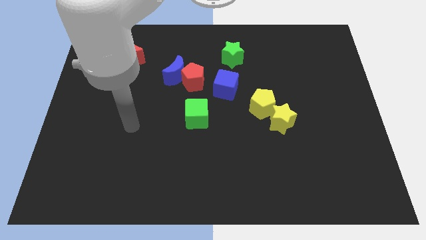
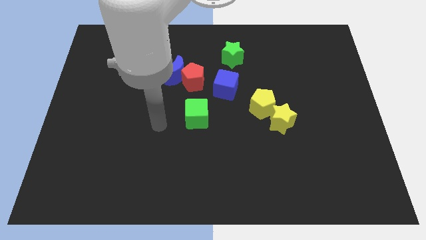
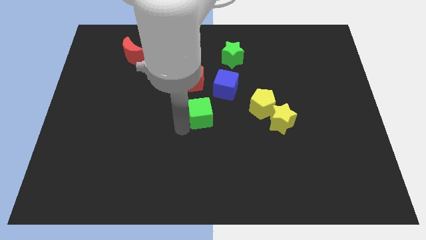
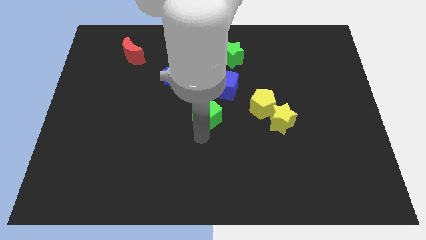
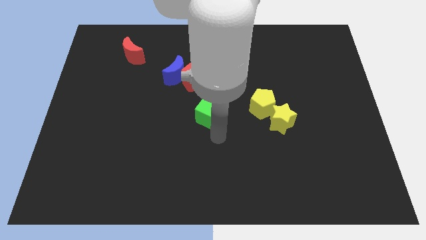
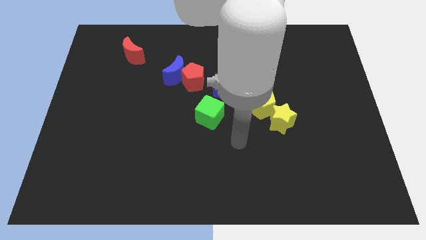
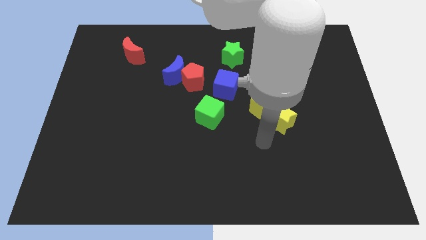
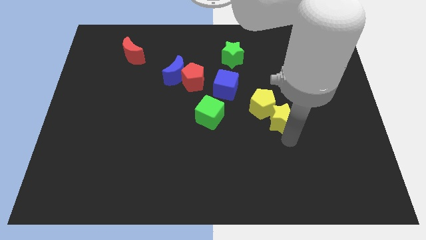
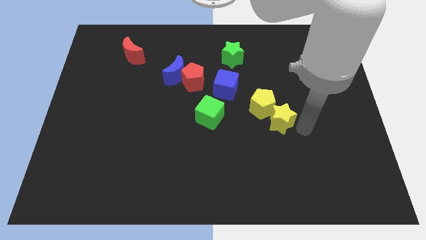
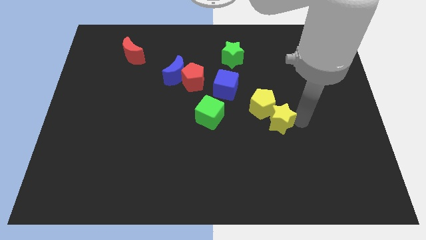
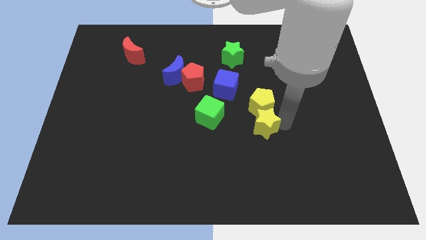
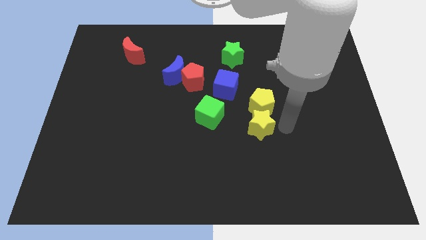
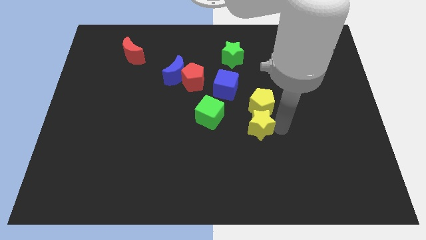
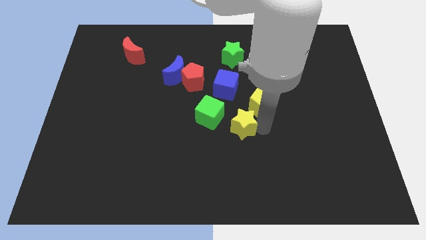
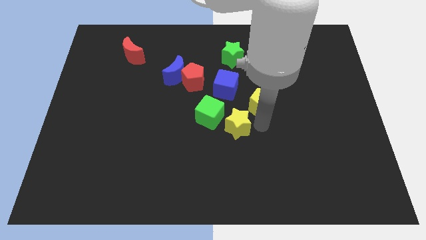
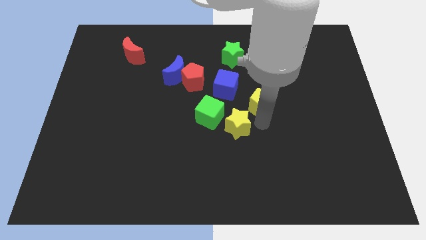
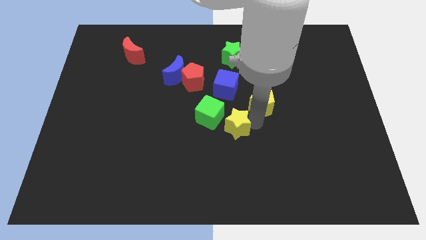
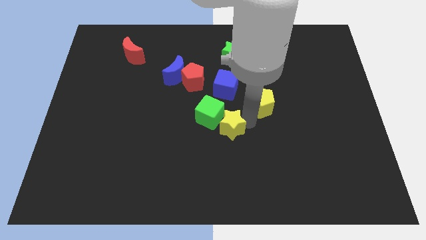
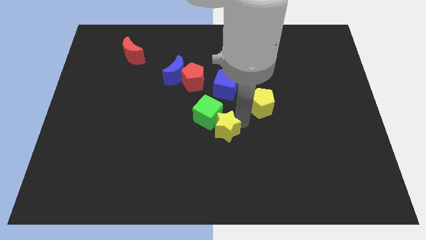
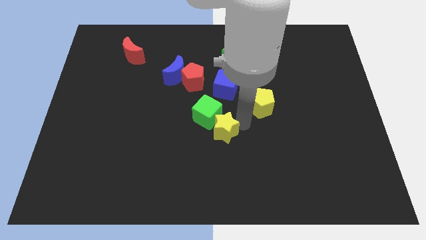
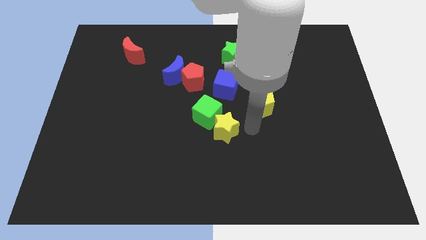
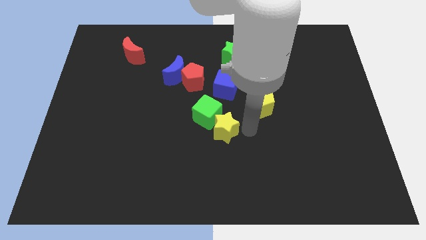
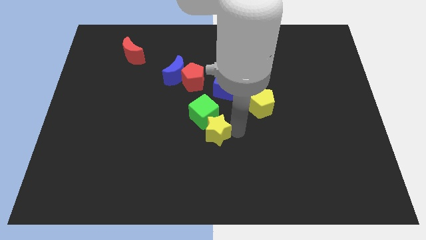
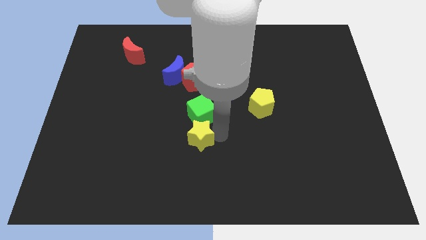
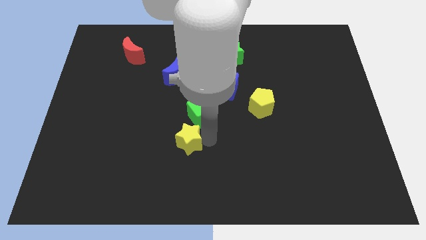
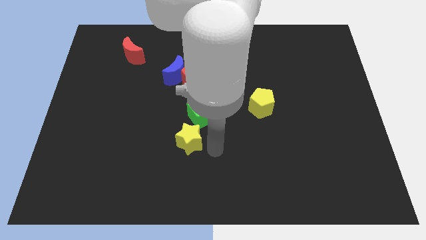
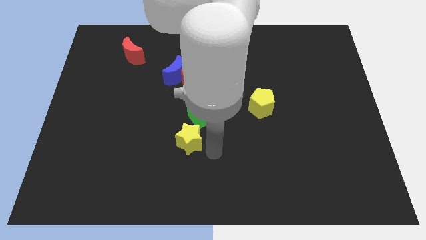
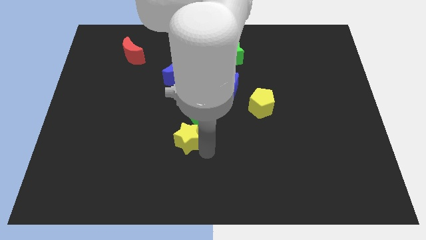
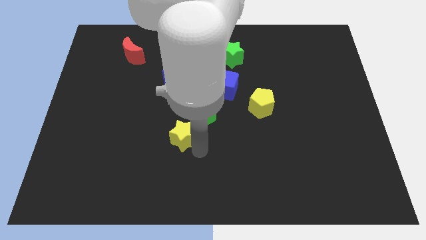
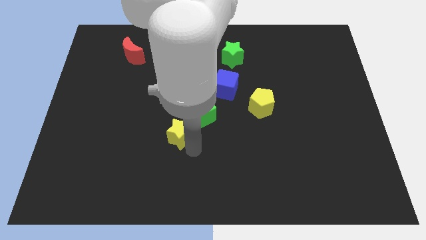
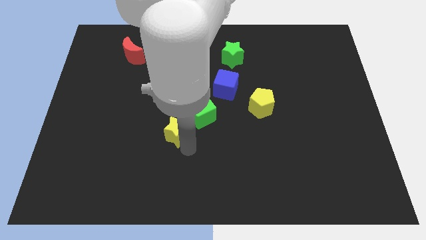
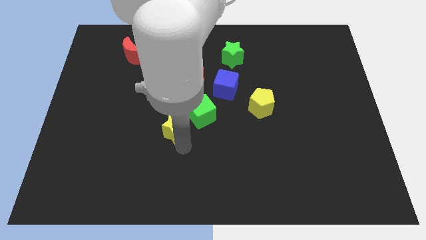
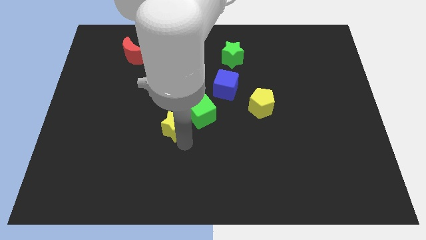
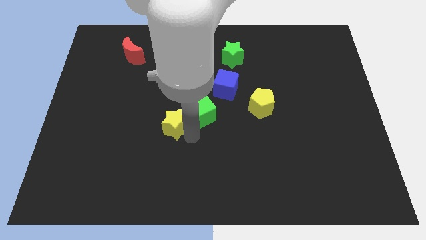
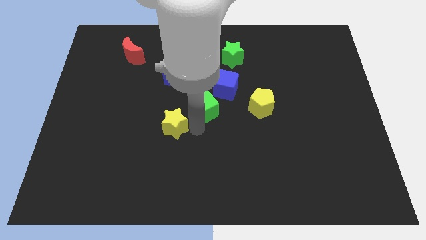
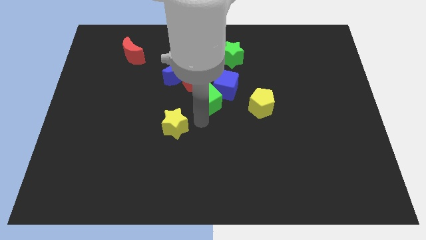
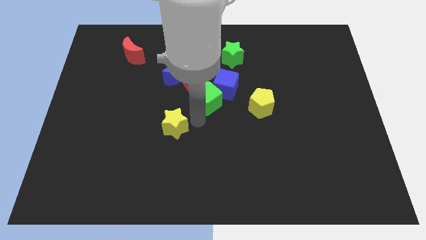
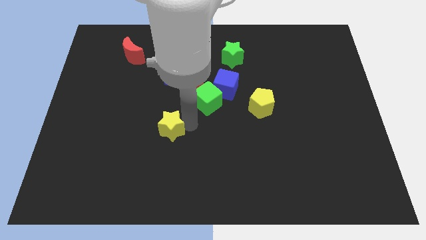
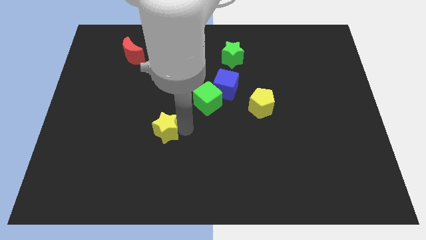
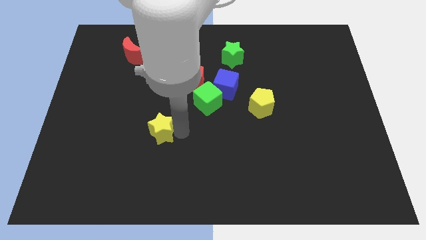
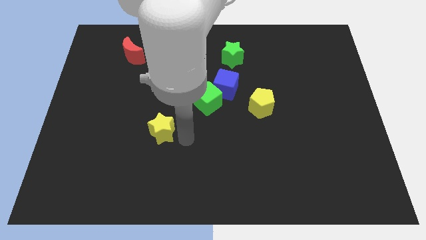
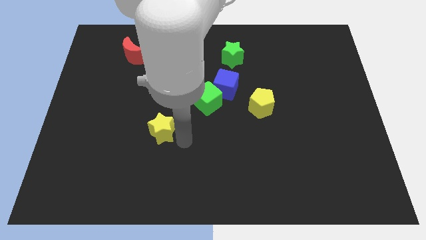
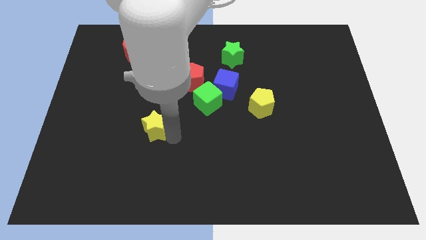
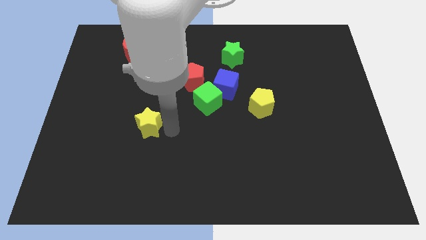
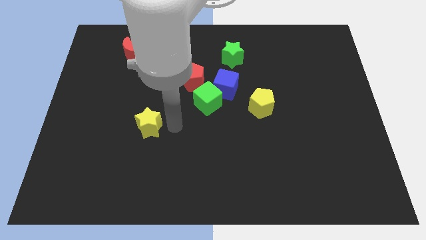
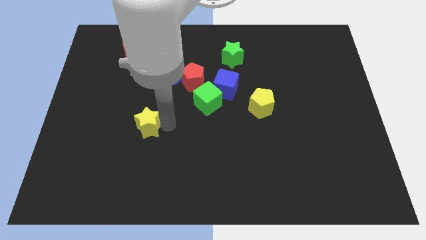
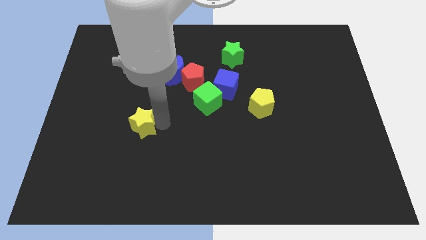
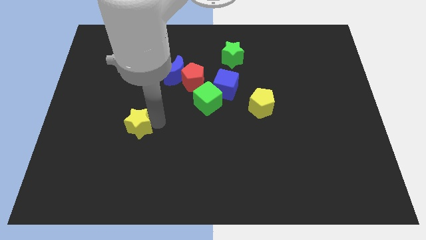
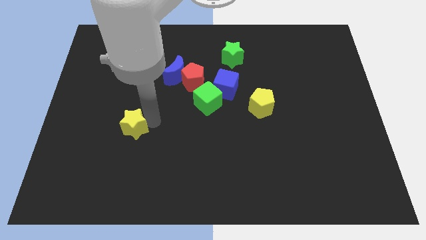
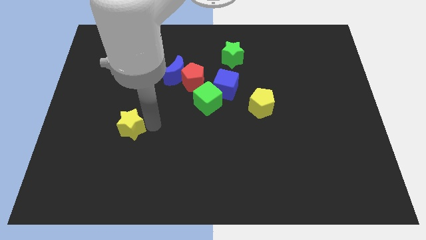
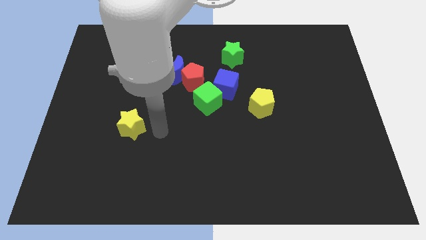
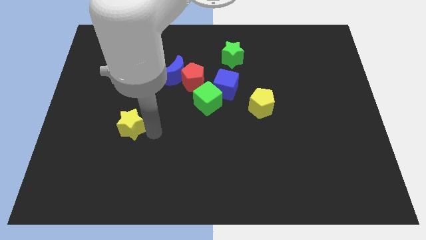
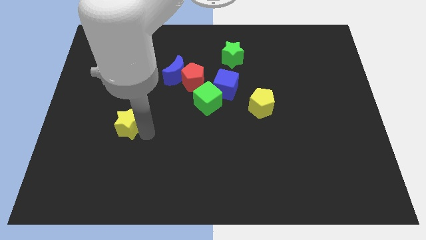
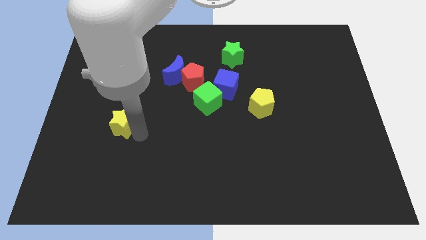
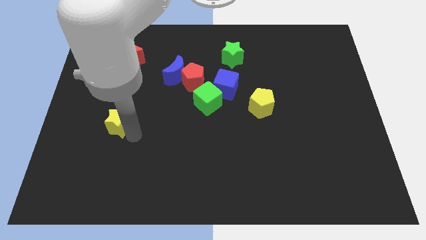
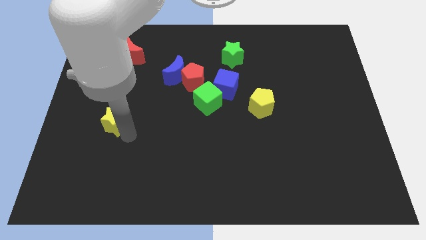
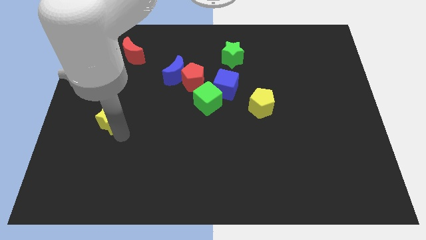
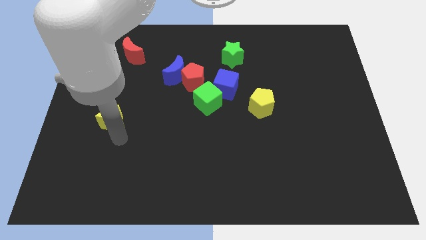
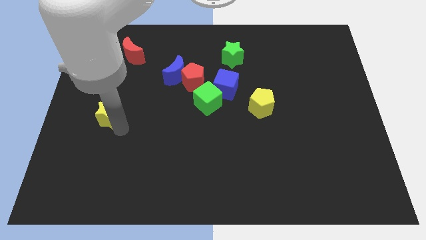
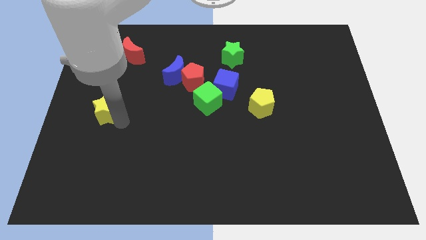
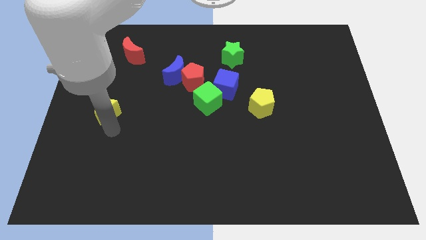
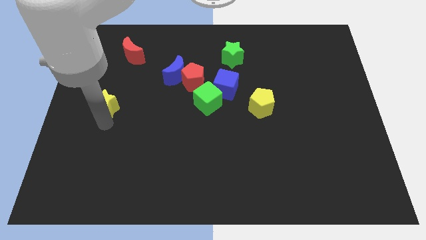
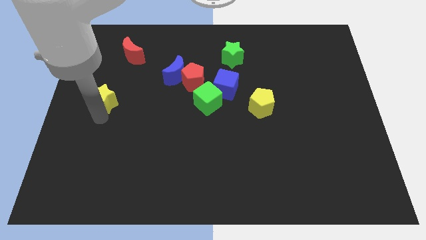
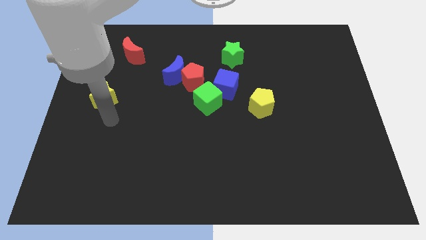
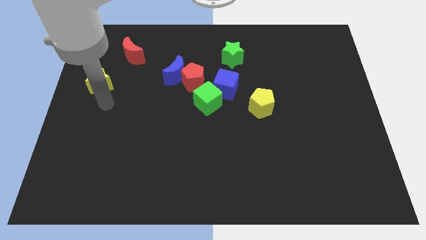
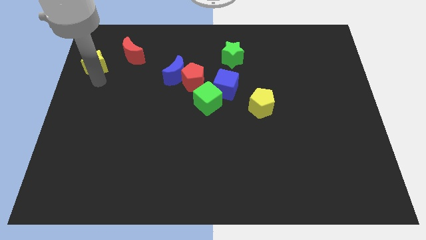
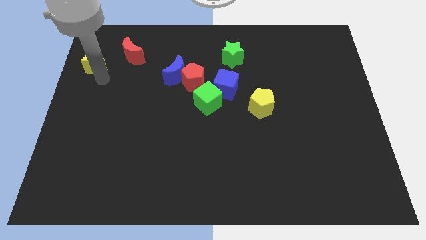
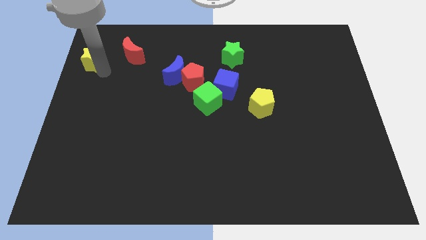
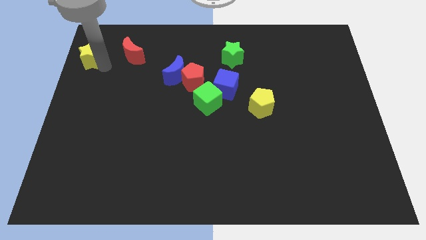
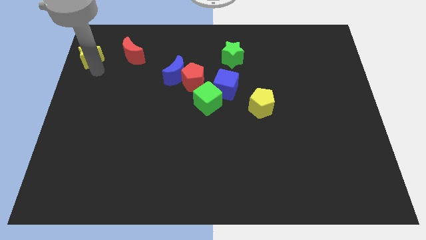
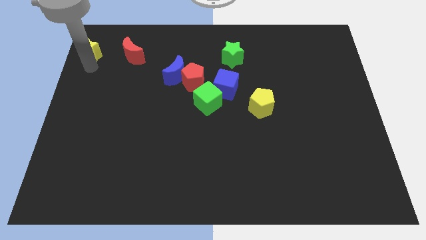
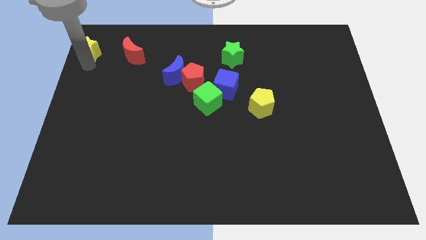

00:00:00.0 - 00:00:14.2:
slide the yellow star to the upper left corner

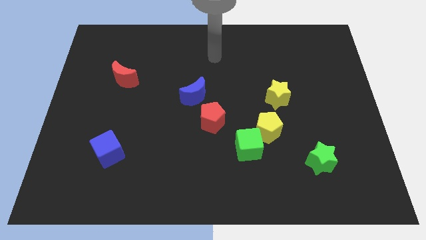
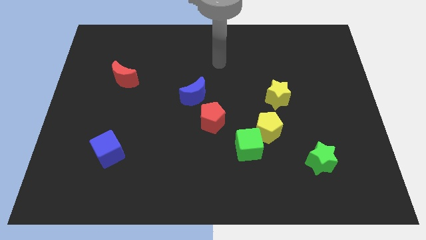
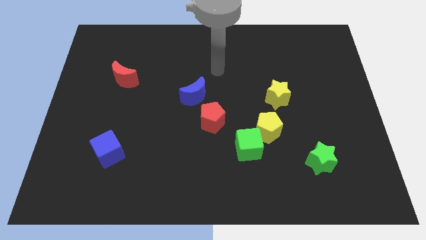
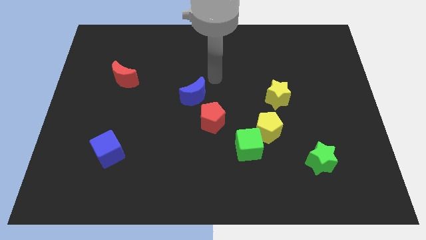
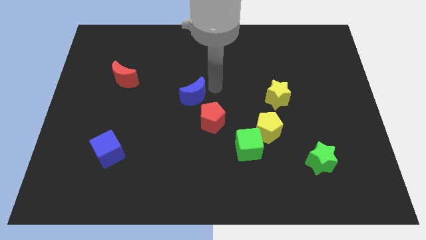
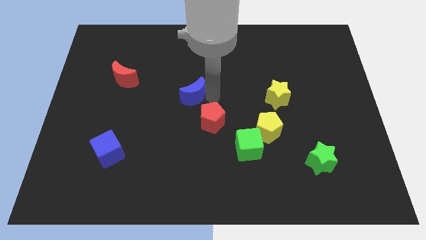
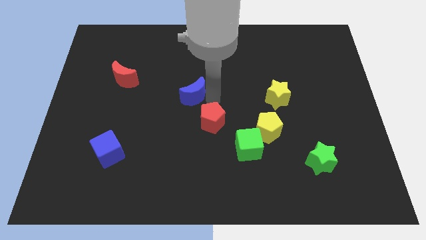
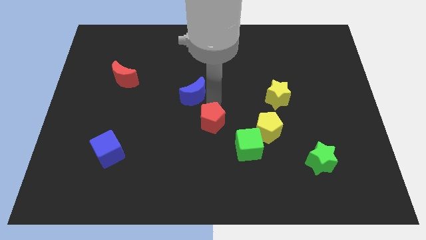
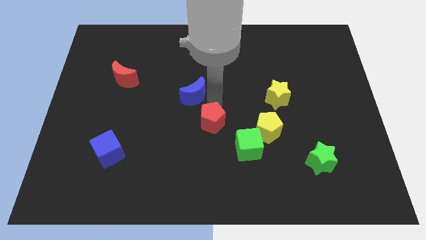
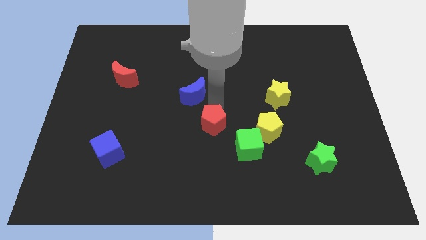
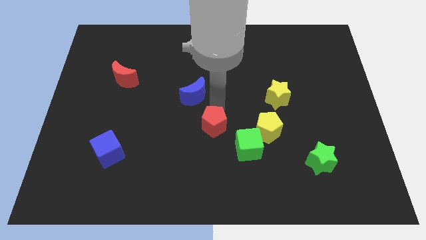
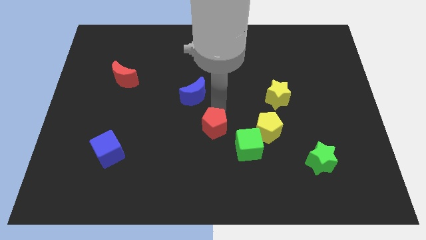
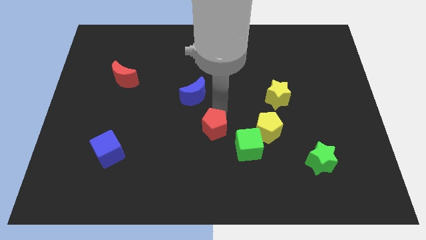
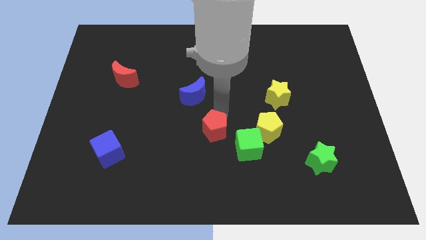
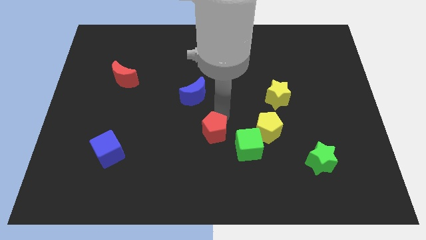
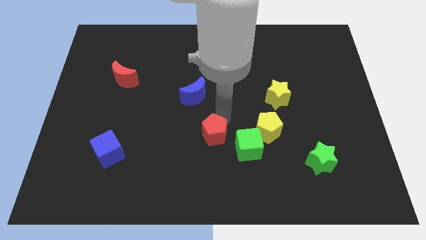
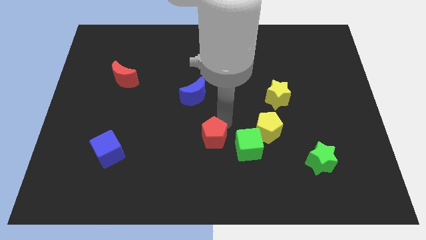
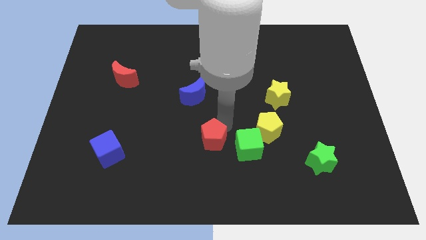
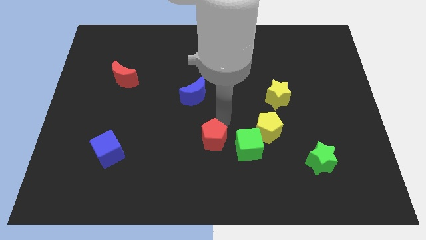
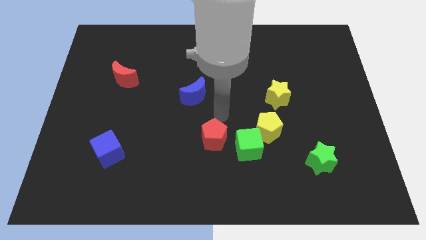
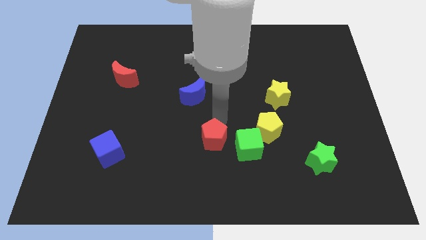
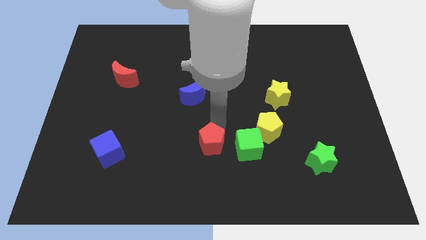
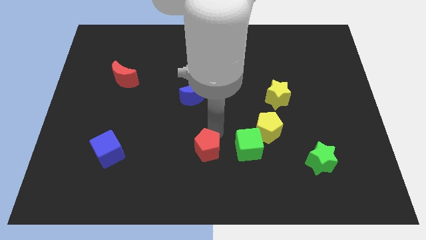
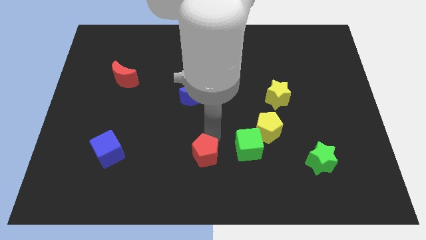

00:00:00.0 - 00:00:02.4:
push the red pentagon to the bottom side
